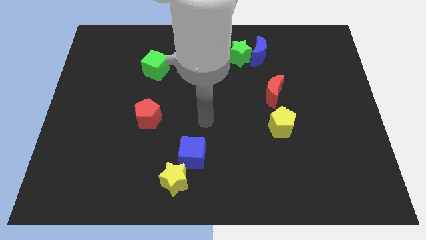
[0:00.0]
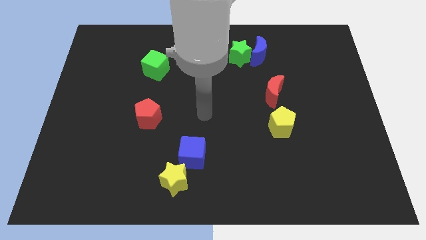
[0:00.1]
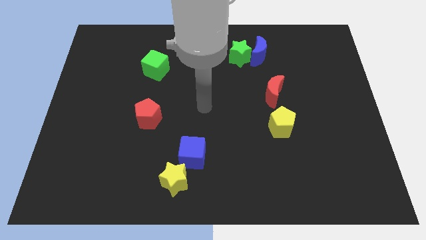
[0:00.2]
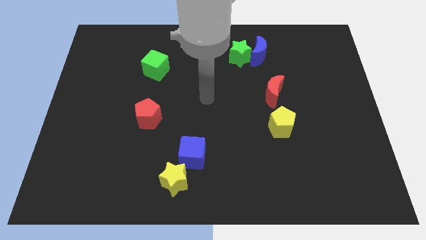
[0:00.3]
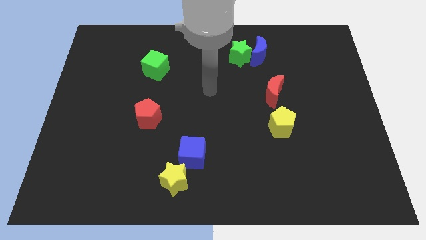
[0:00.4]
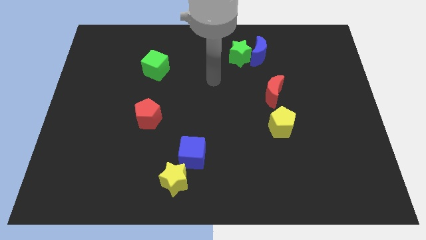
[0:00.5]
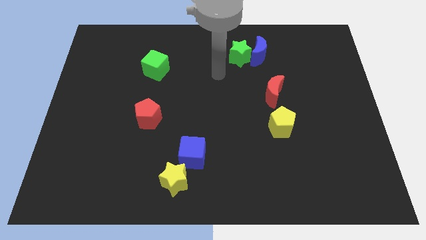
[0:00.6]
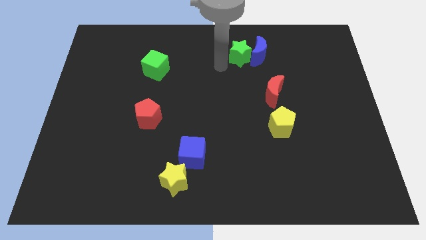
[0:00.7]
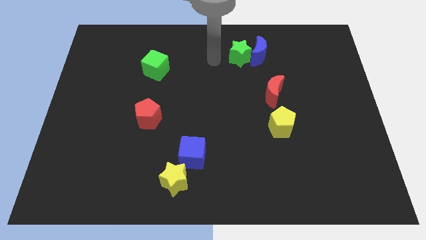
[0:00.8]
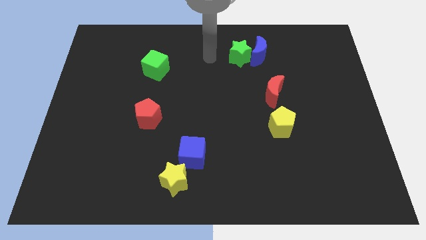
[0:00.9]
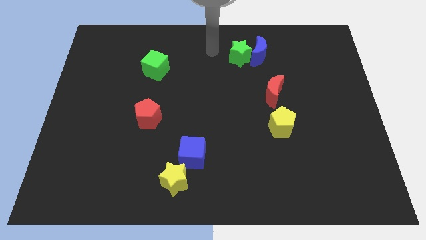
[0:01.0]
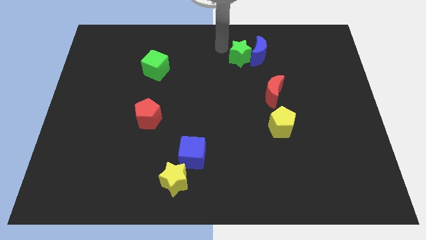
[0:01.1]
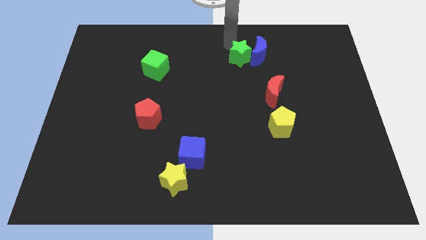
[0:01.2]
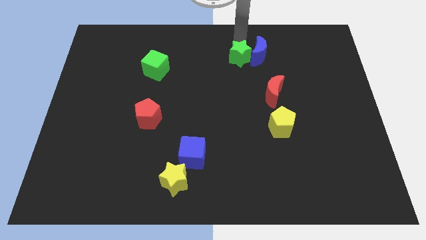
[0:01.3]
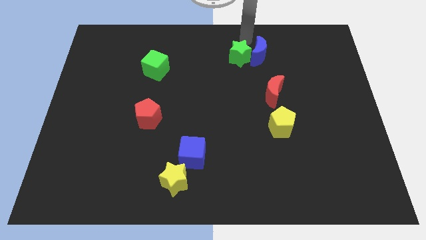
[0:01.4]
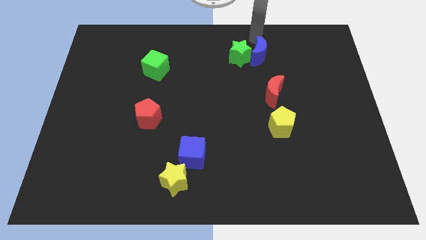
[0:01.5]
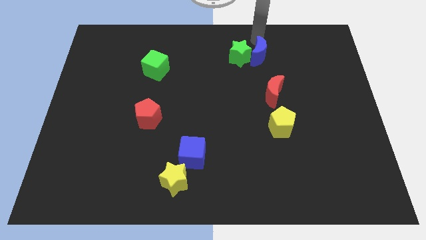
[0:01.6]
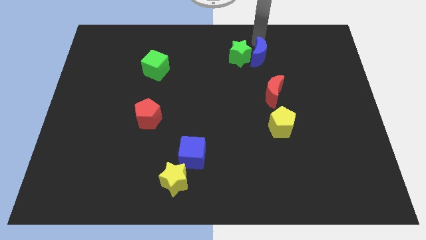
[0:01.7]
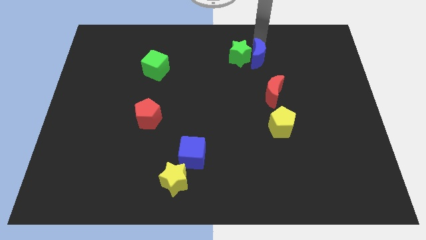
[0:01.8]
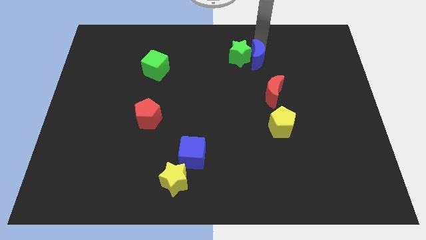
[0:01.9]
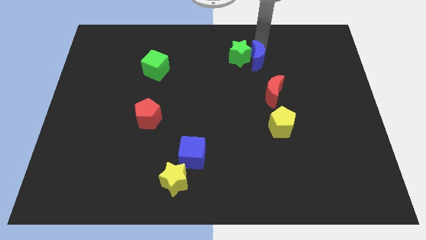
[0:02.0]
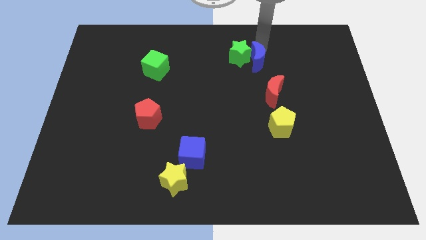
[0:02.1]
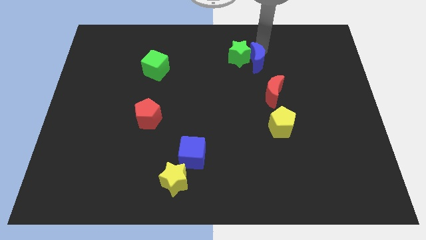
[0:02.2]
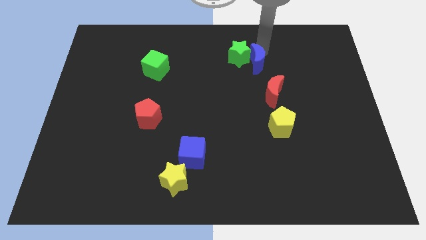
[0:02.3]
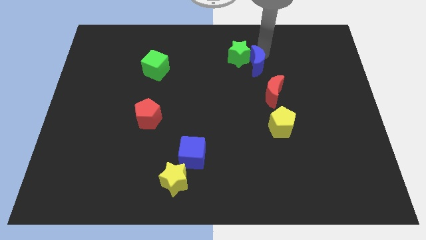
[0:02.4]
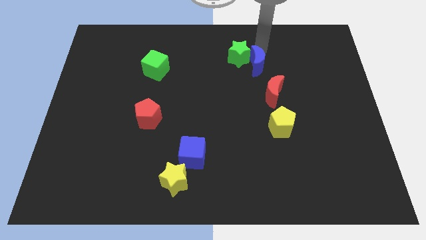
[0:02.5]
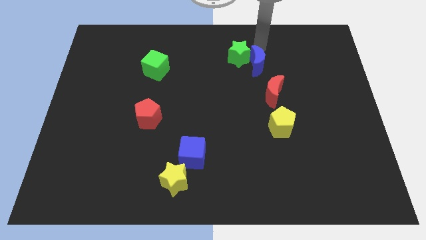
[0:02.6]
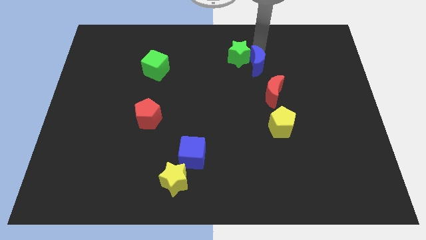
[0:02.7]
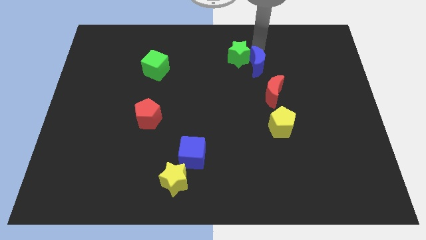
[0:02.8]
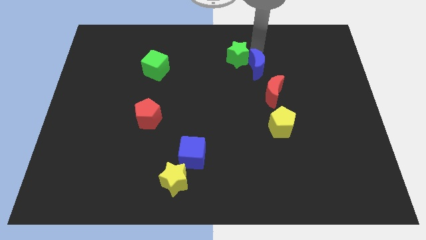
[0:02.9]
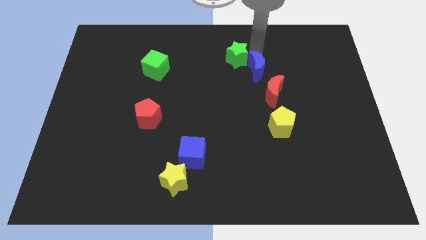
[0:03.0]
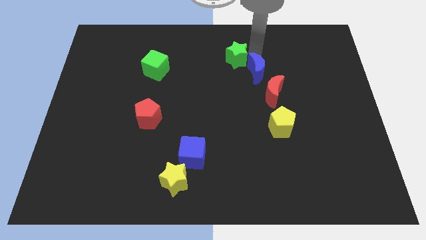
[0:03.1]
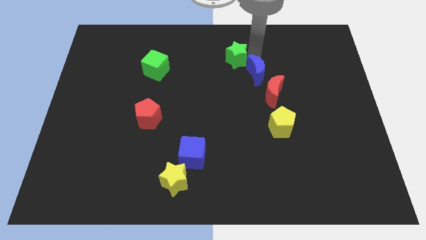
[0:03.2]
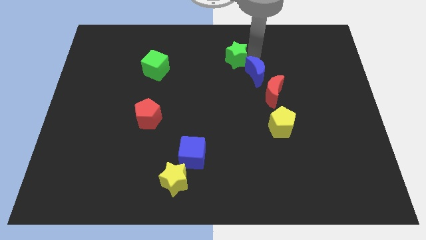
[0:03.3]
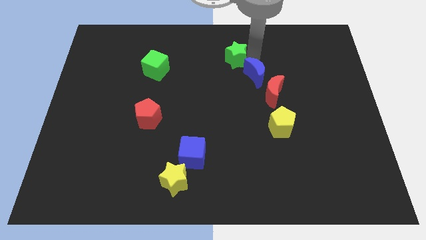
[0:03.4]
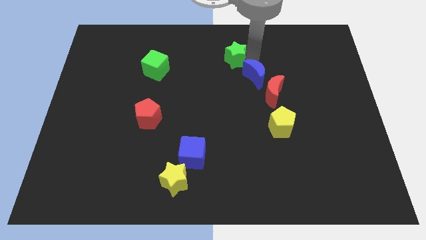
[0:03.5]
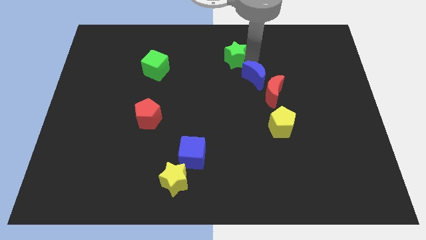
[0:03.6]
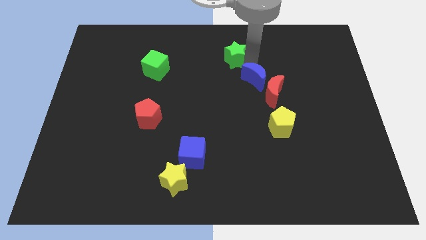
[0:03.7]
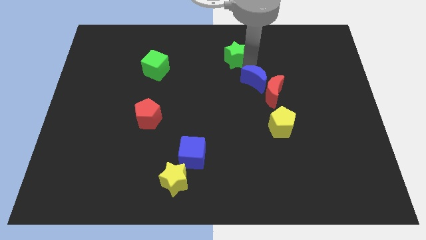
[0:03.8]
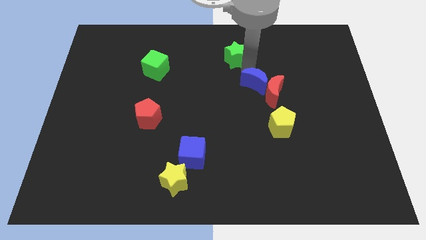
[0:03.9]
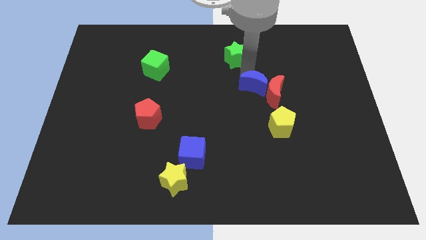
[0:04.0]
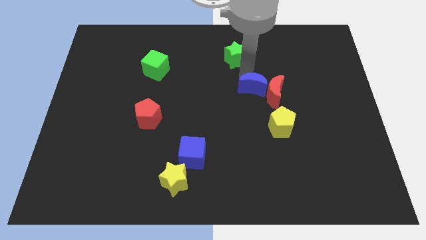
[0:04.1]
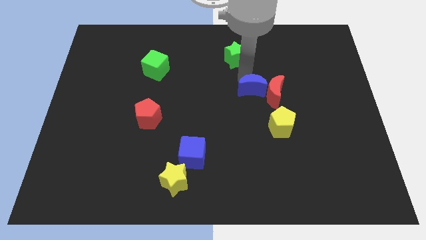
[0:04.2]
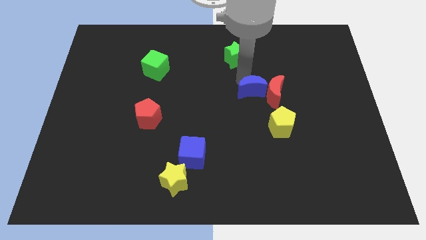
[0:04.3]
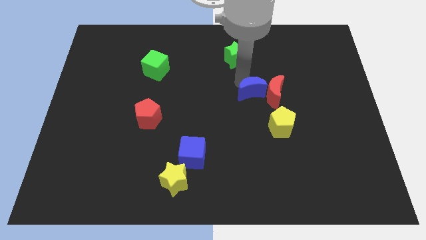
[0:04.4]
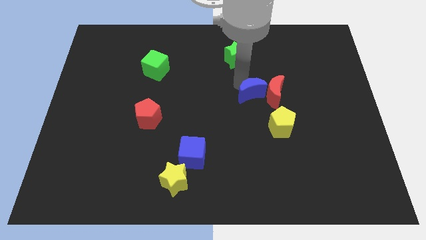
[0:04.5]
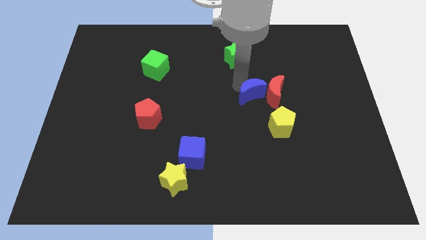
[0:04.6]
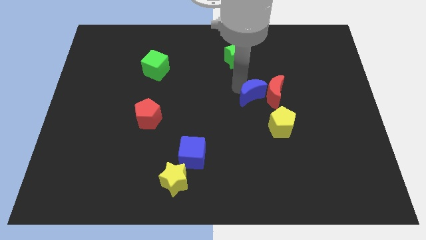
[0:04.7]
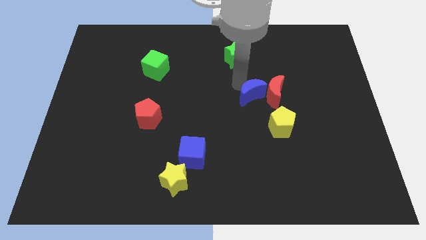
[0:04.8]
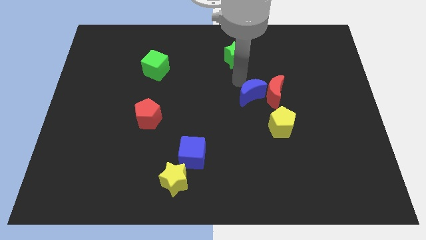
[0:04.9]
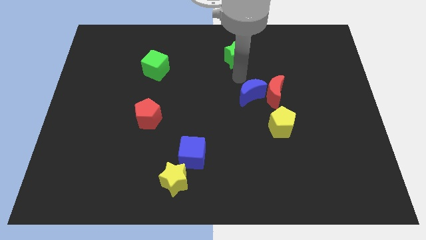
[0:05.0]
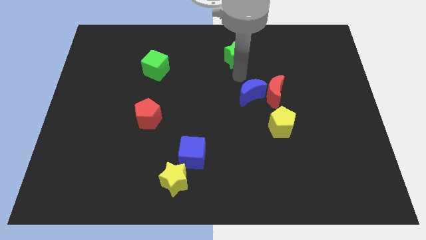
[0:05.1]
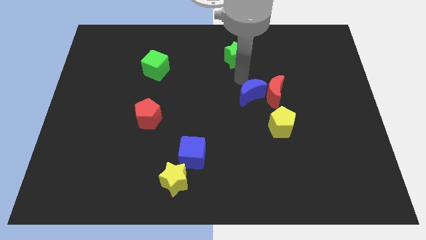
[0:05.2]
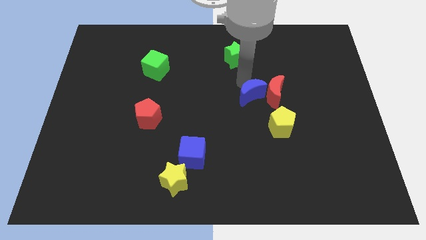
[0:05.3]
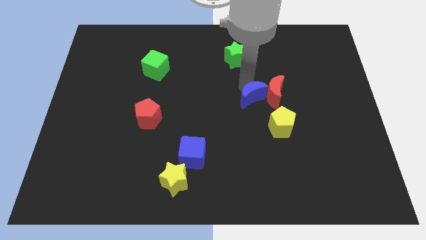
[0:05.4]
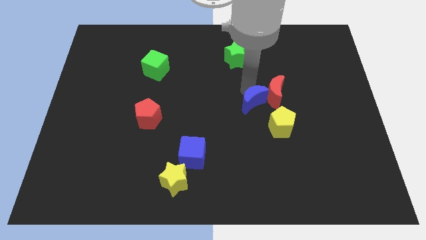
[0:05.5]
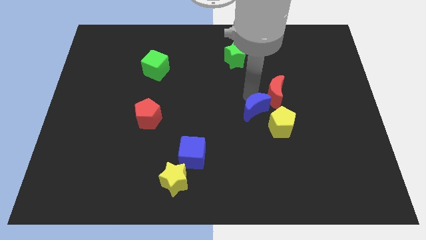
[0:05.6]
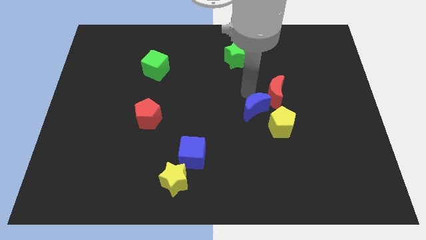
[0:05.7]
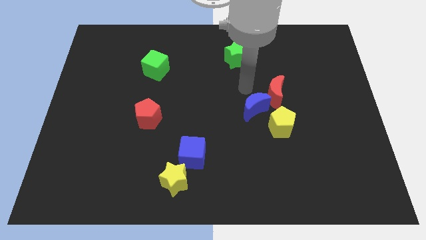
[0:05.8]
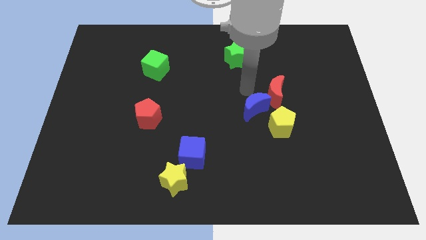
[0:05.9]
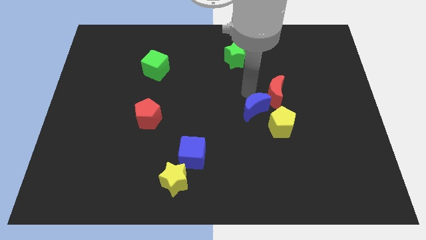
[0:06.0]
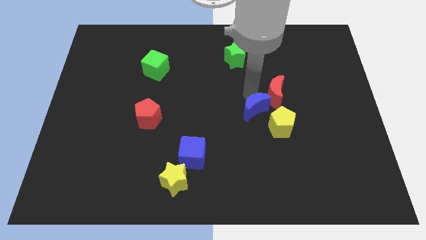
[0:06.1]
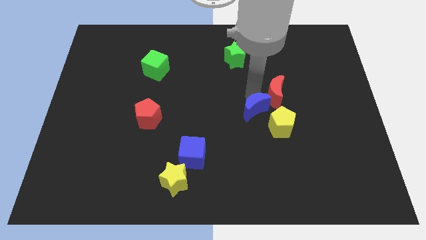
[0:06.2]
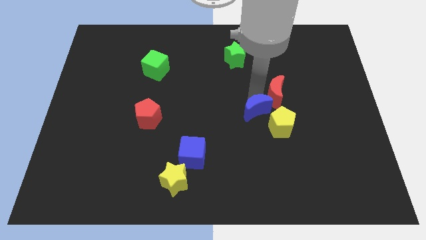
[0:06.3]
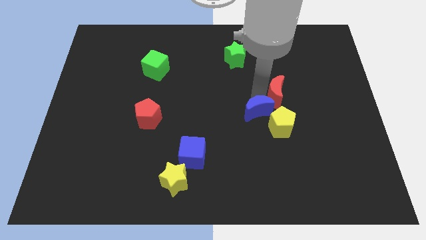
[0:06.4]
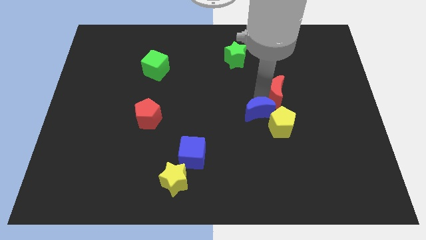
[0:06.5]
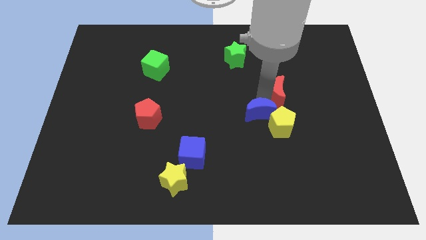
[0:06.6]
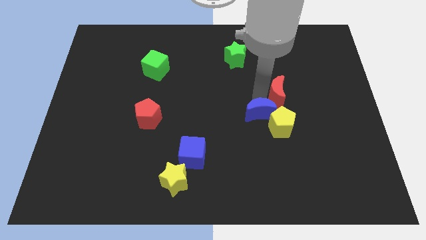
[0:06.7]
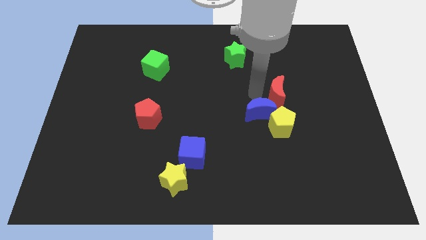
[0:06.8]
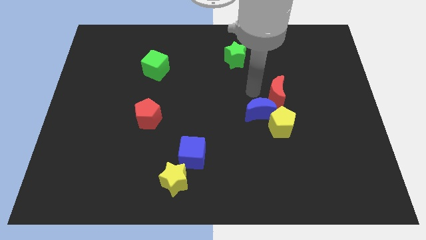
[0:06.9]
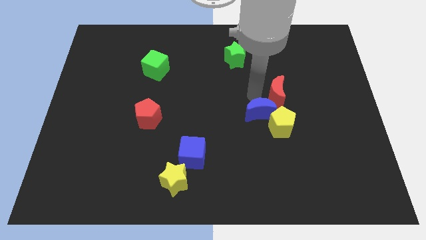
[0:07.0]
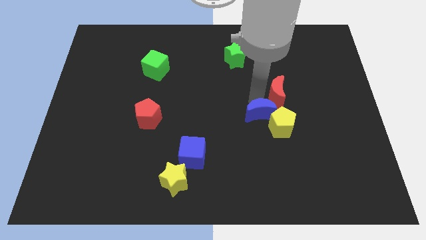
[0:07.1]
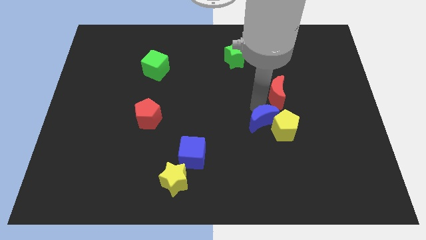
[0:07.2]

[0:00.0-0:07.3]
slide the blue moon down

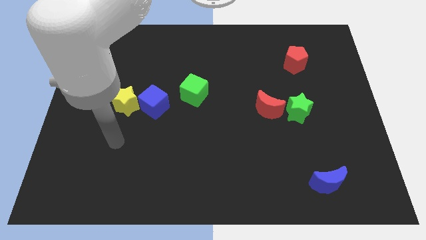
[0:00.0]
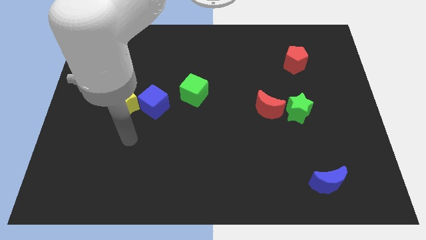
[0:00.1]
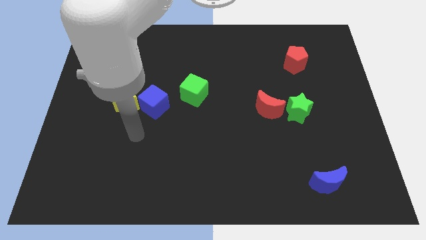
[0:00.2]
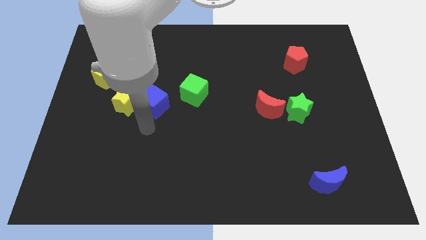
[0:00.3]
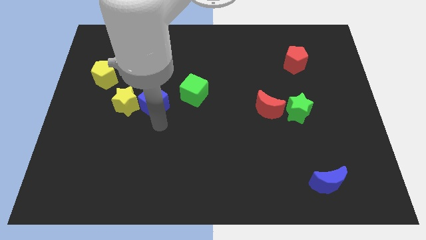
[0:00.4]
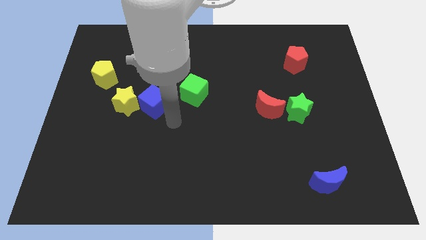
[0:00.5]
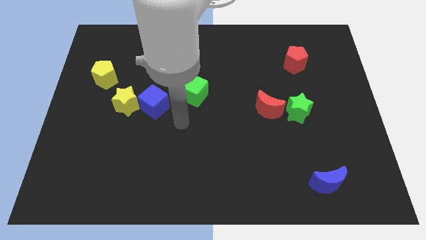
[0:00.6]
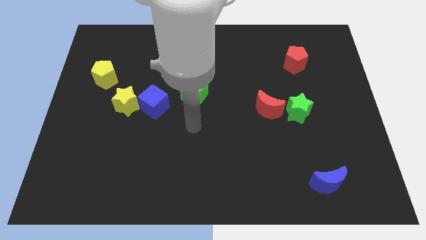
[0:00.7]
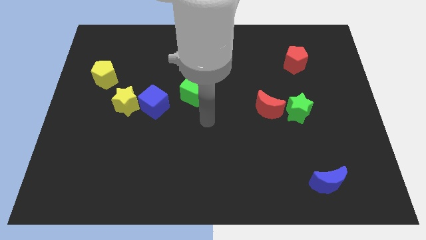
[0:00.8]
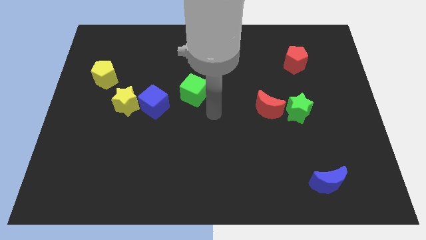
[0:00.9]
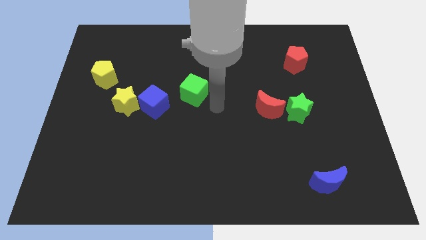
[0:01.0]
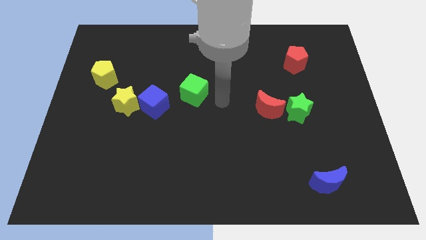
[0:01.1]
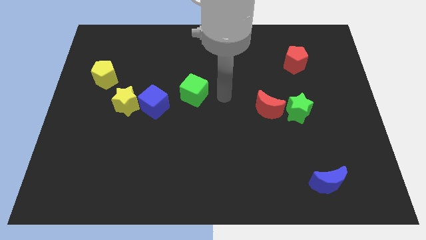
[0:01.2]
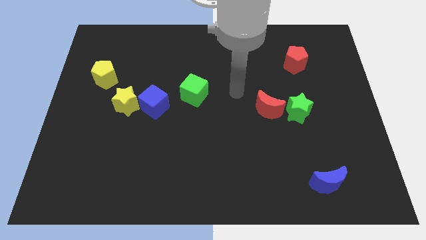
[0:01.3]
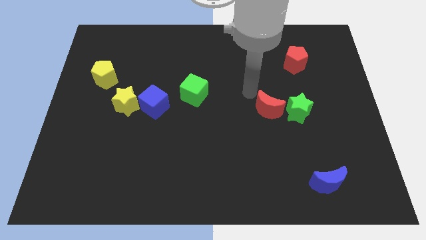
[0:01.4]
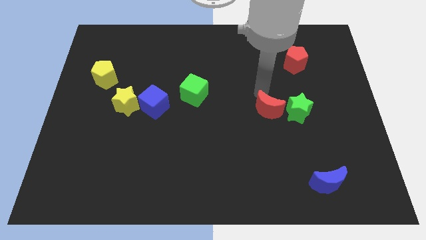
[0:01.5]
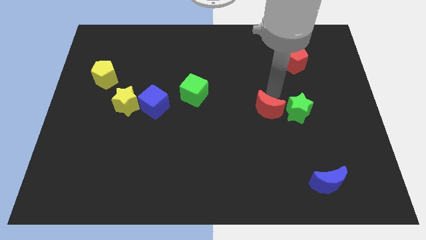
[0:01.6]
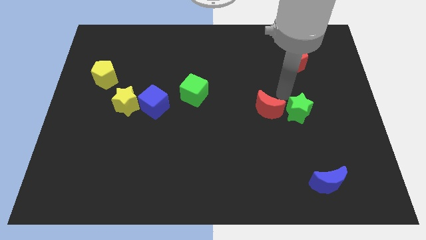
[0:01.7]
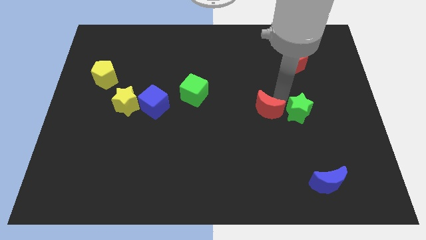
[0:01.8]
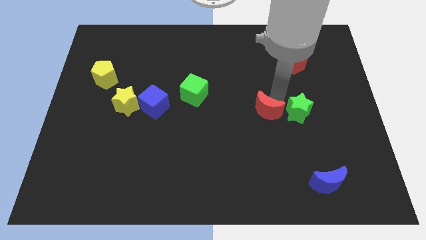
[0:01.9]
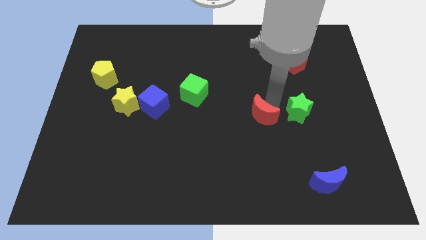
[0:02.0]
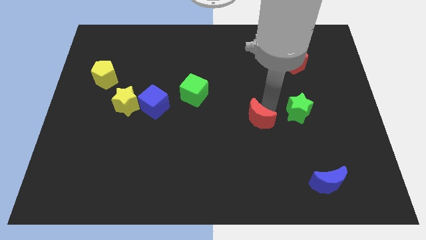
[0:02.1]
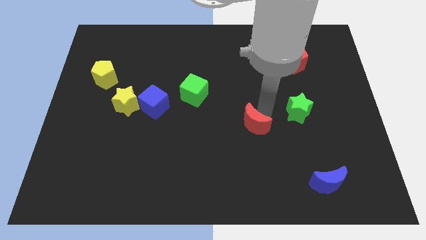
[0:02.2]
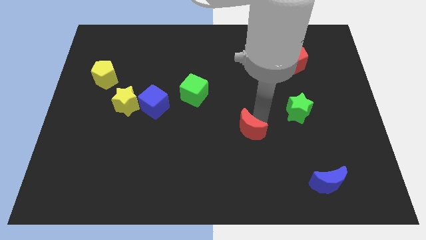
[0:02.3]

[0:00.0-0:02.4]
move the red moon a little bit down and left
